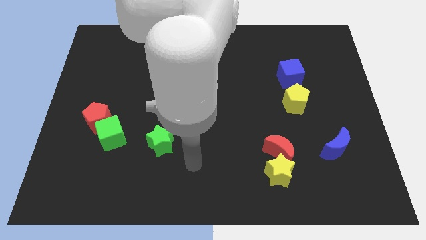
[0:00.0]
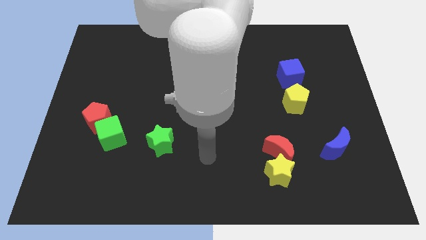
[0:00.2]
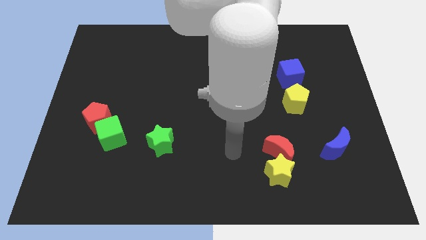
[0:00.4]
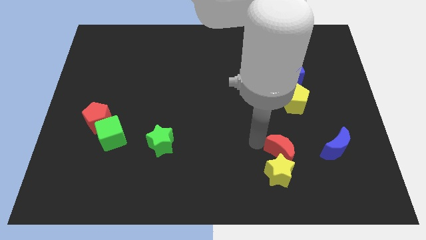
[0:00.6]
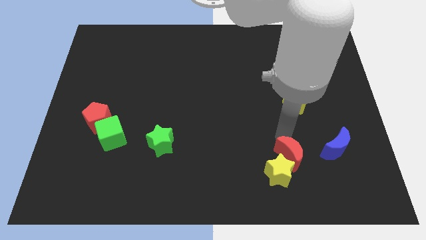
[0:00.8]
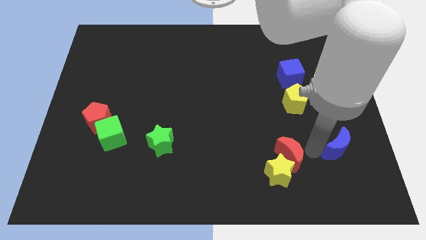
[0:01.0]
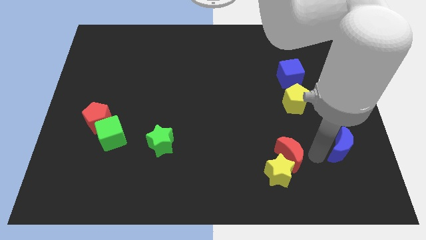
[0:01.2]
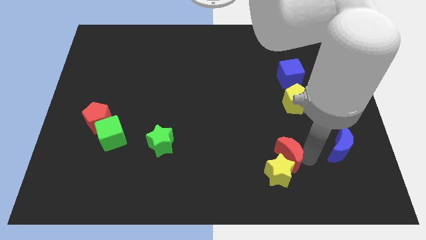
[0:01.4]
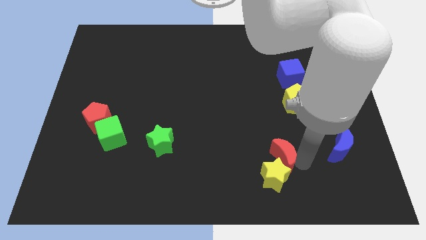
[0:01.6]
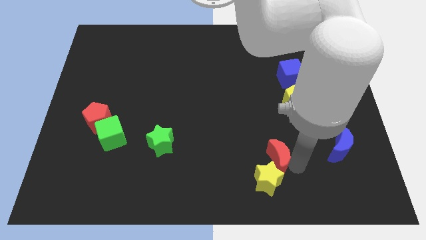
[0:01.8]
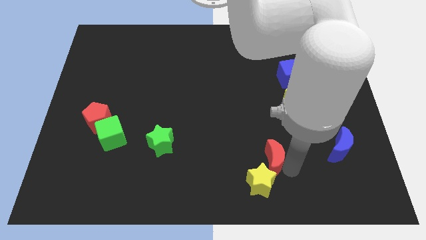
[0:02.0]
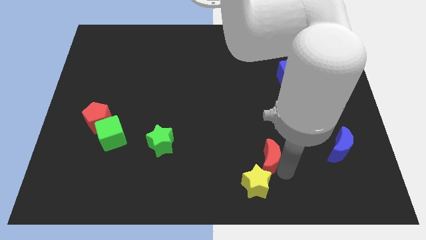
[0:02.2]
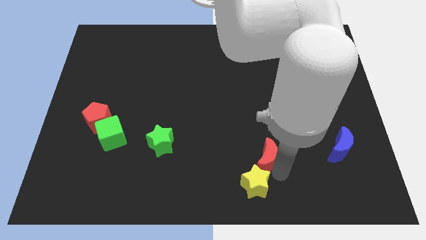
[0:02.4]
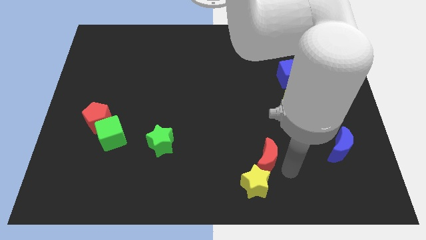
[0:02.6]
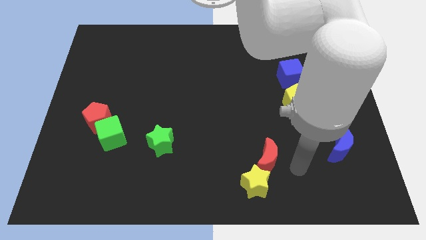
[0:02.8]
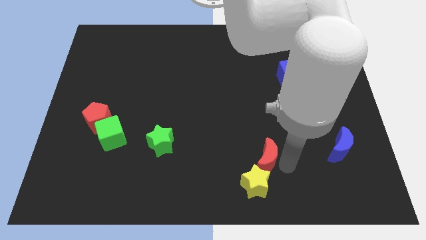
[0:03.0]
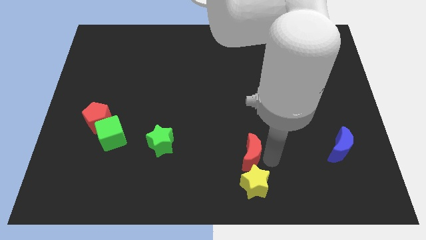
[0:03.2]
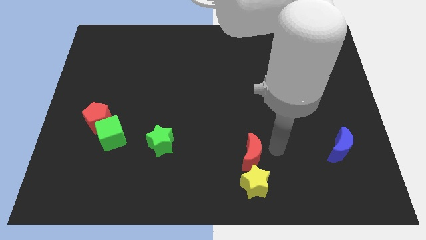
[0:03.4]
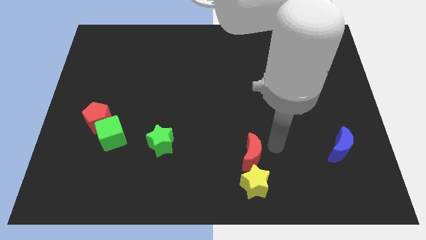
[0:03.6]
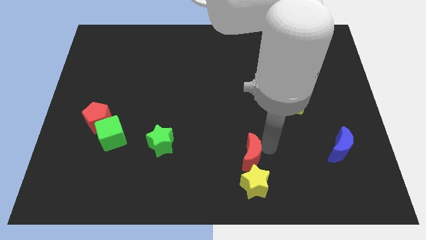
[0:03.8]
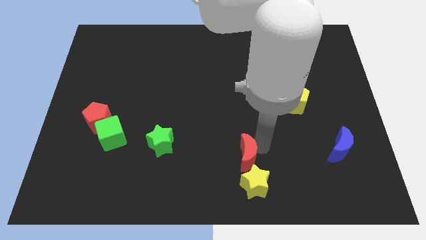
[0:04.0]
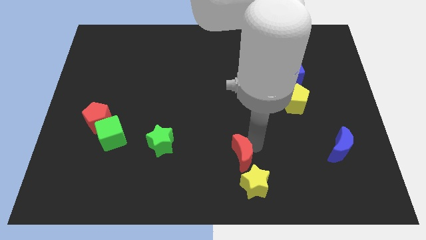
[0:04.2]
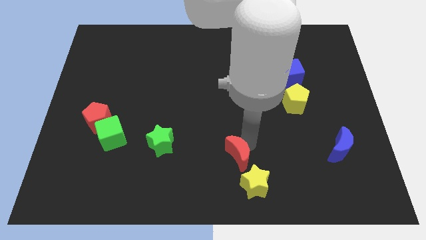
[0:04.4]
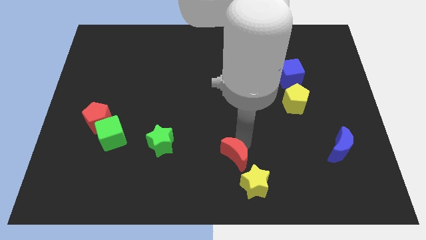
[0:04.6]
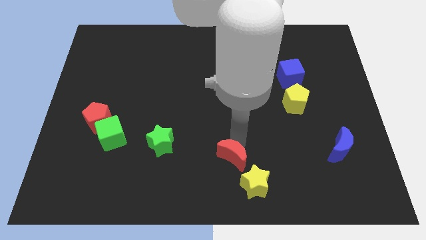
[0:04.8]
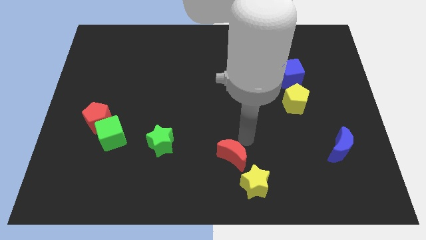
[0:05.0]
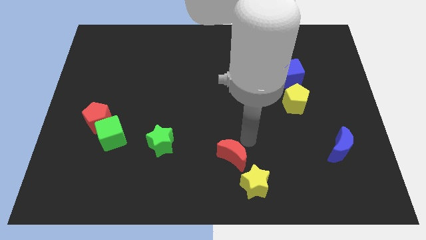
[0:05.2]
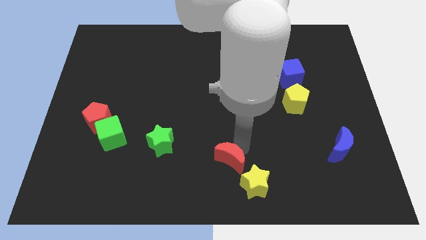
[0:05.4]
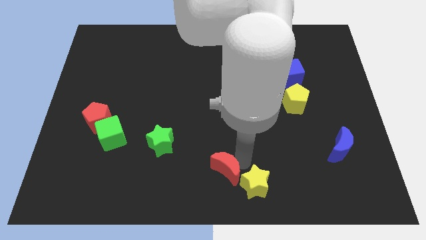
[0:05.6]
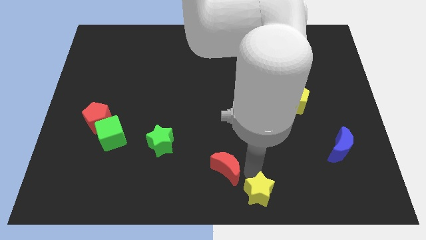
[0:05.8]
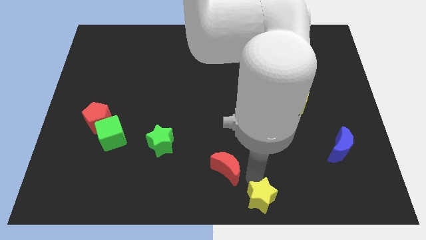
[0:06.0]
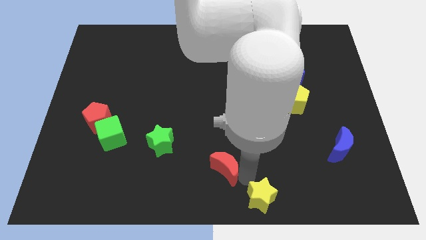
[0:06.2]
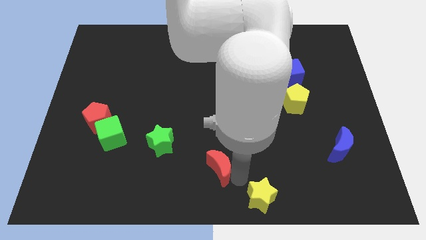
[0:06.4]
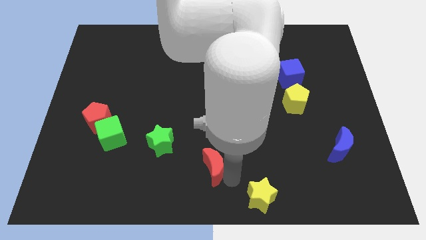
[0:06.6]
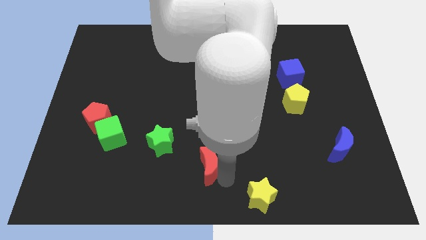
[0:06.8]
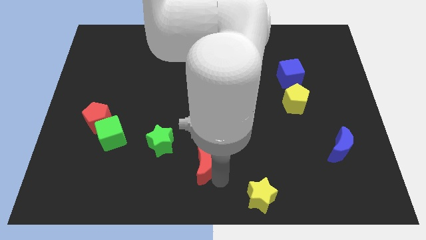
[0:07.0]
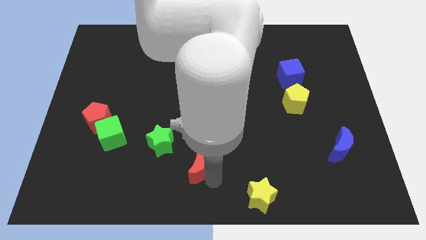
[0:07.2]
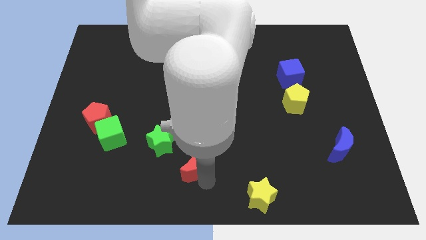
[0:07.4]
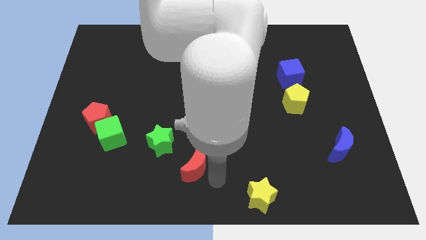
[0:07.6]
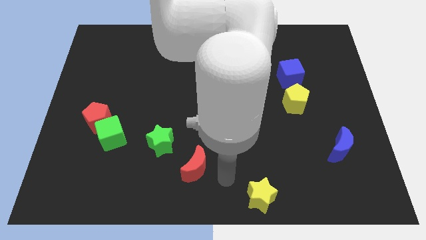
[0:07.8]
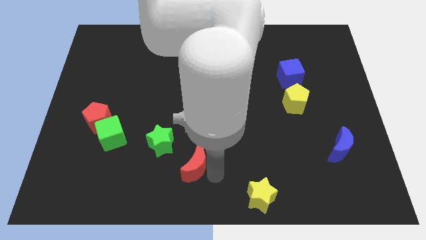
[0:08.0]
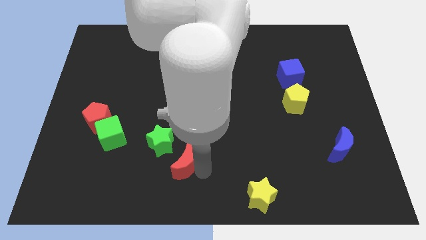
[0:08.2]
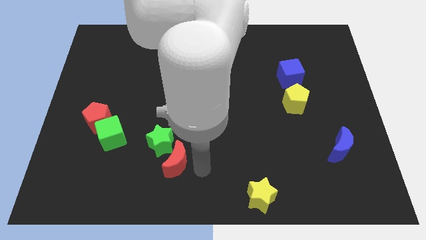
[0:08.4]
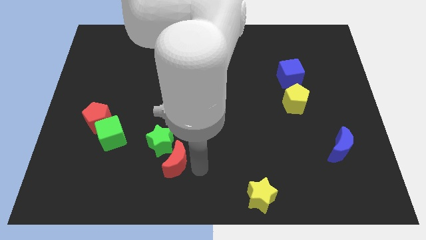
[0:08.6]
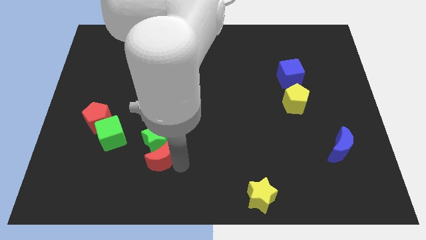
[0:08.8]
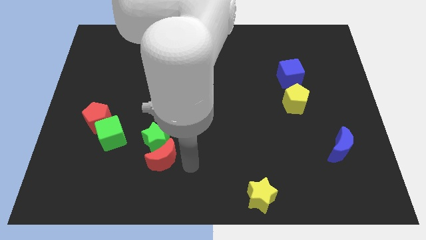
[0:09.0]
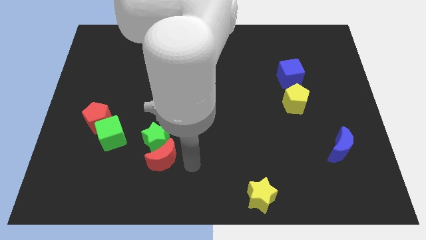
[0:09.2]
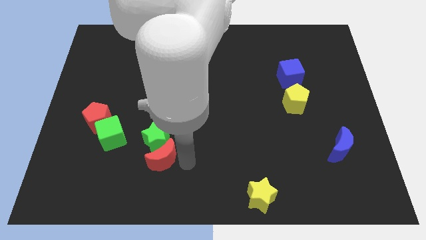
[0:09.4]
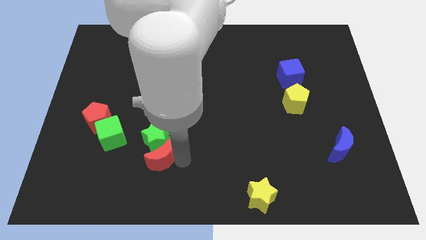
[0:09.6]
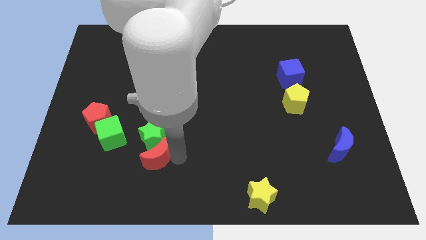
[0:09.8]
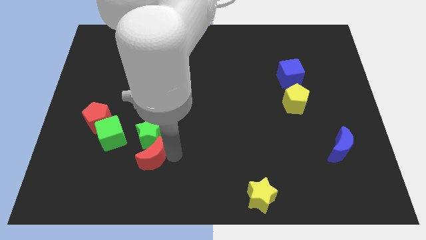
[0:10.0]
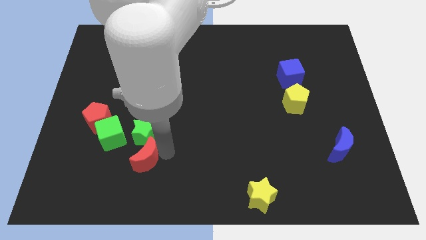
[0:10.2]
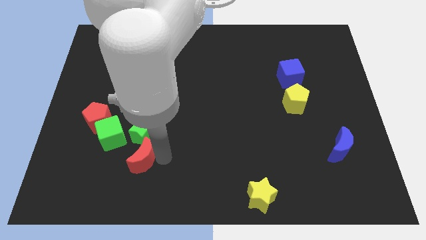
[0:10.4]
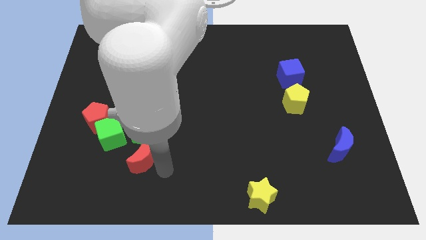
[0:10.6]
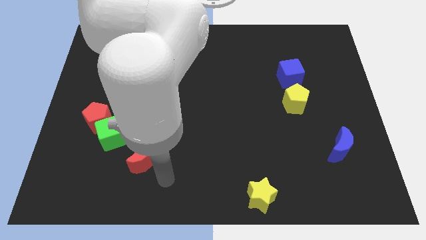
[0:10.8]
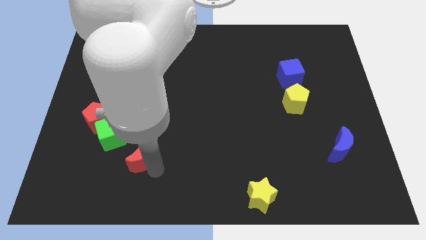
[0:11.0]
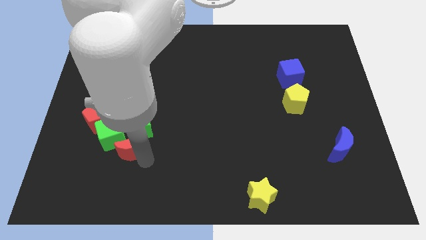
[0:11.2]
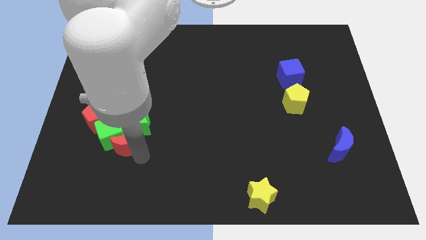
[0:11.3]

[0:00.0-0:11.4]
move the red moon next to the green cube

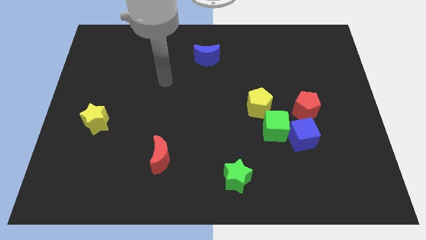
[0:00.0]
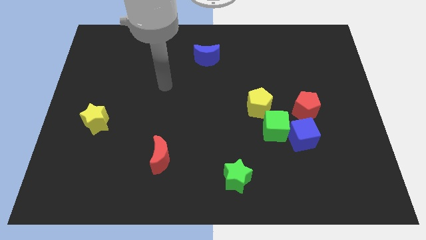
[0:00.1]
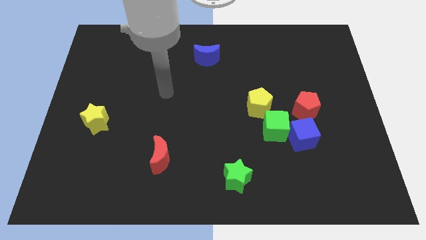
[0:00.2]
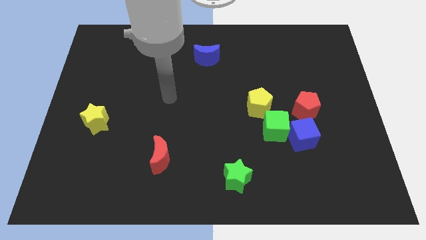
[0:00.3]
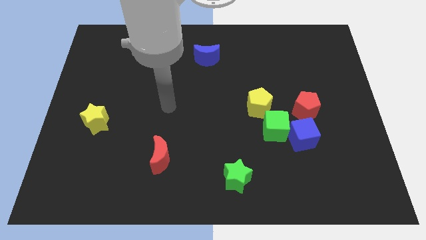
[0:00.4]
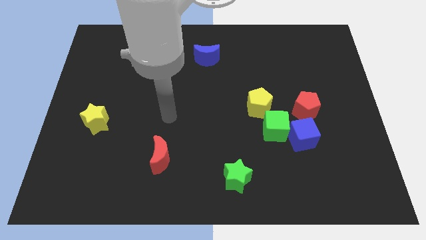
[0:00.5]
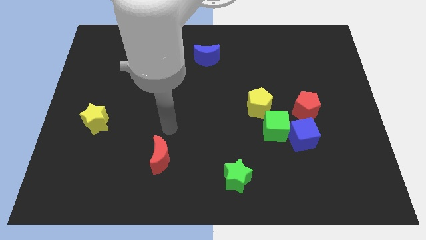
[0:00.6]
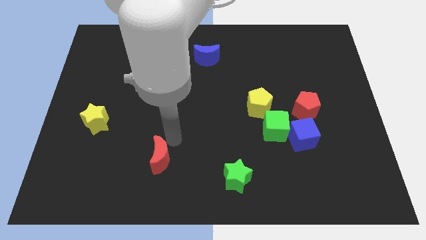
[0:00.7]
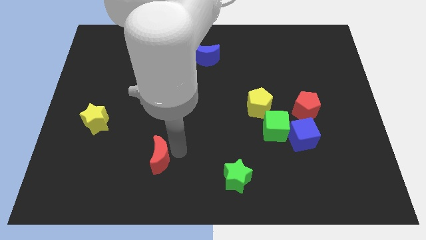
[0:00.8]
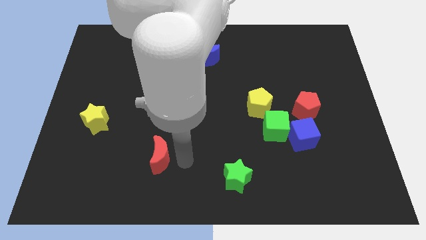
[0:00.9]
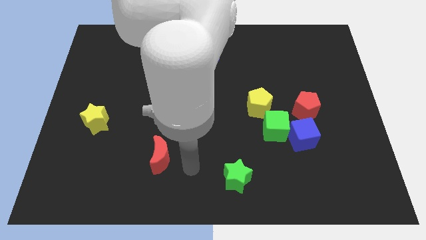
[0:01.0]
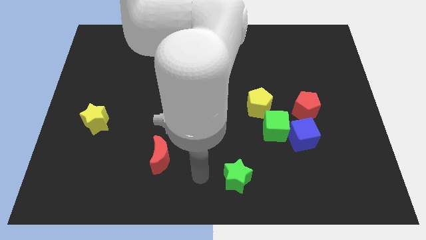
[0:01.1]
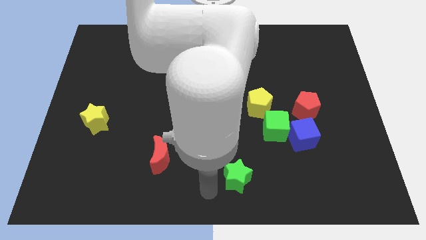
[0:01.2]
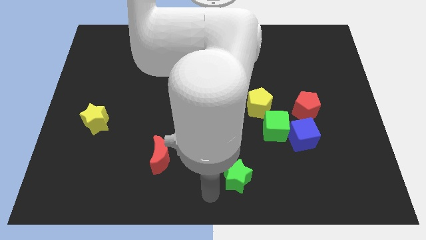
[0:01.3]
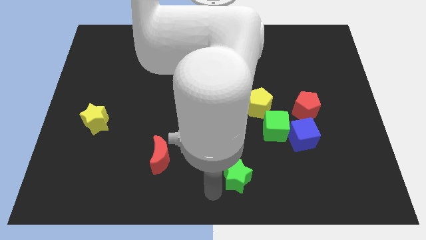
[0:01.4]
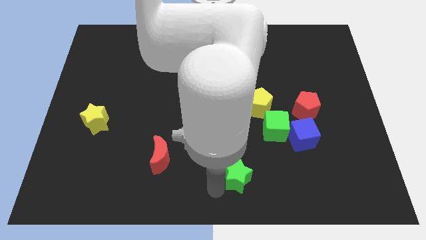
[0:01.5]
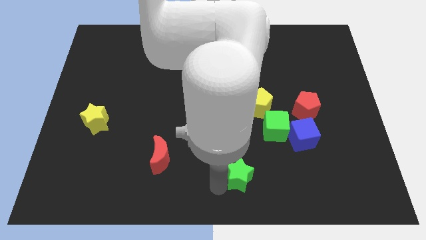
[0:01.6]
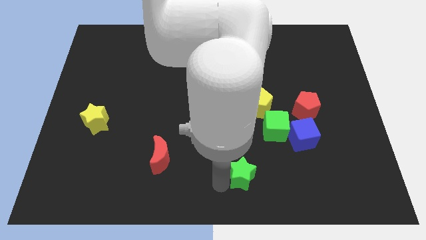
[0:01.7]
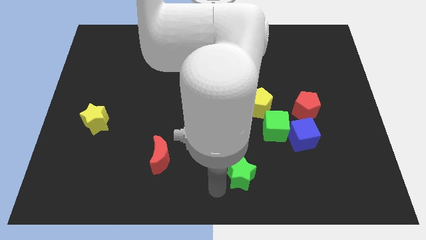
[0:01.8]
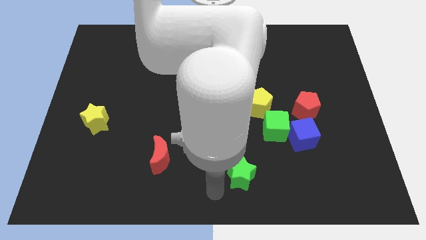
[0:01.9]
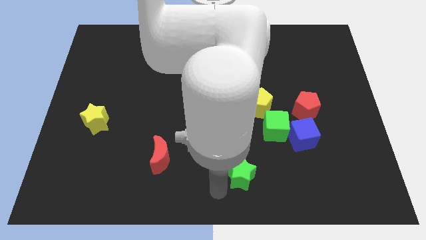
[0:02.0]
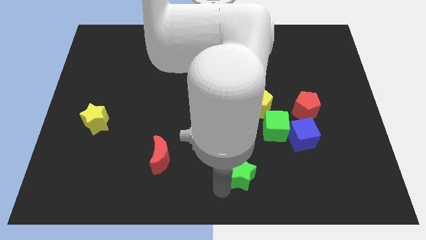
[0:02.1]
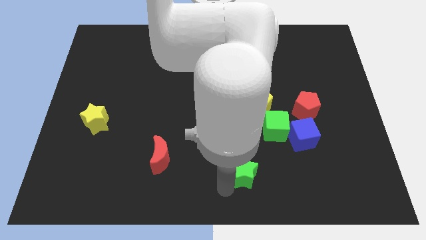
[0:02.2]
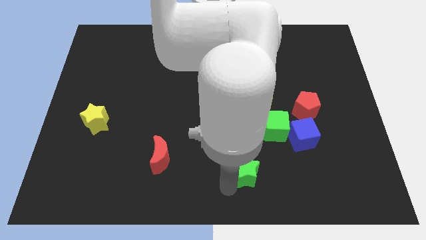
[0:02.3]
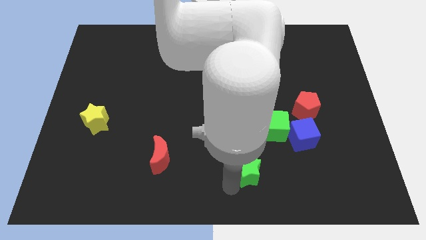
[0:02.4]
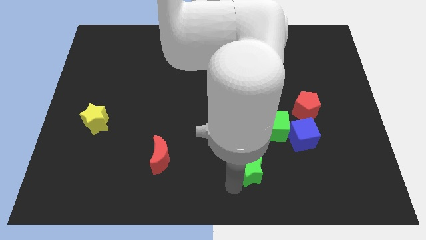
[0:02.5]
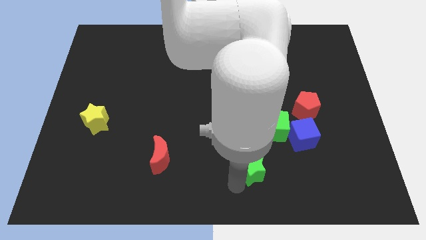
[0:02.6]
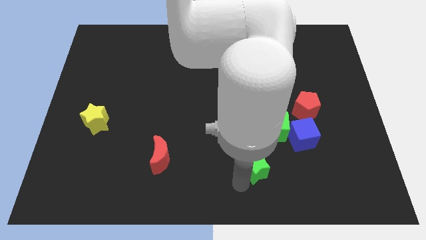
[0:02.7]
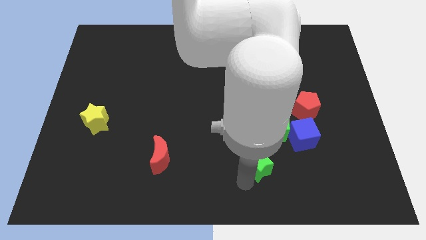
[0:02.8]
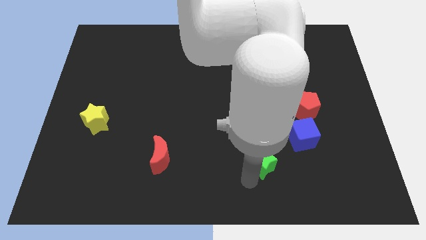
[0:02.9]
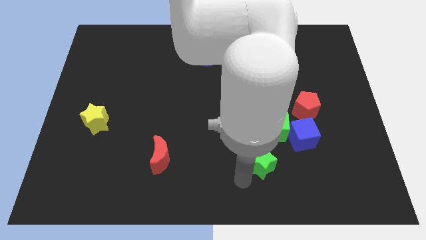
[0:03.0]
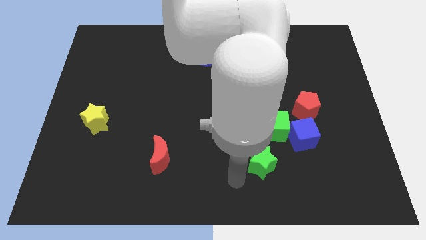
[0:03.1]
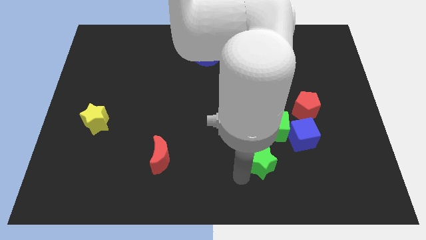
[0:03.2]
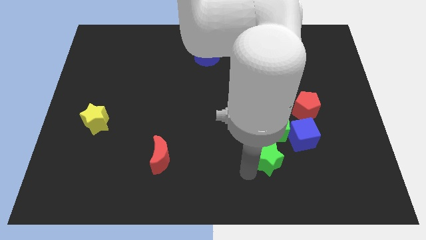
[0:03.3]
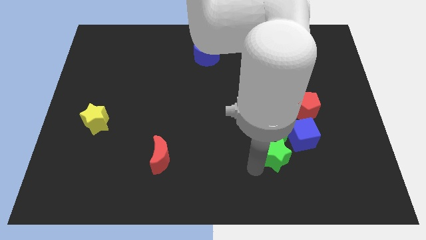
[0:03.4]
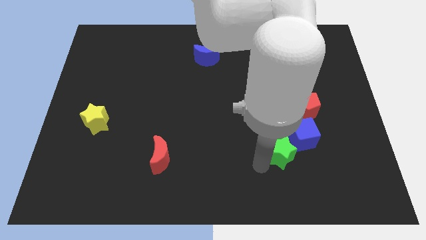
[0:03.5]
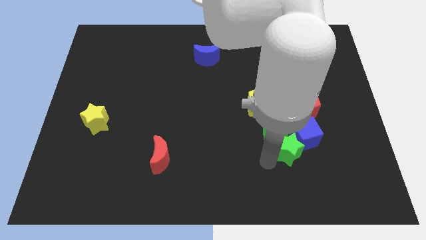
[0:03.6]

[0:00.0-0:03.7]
slide the green star next to the blue cube
